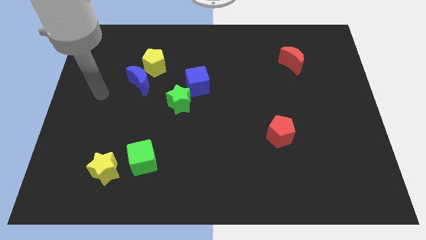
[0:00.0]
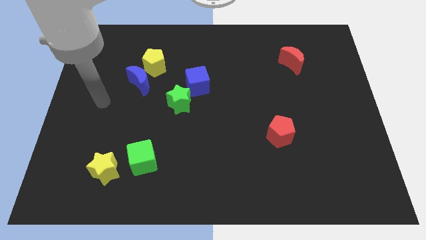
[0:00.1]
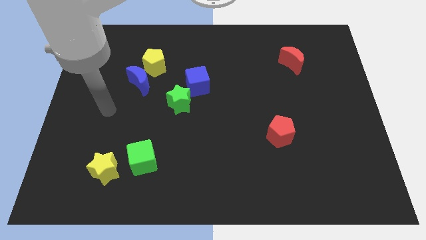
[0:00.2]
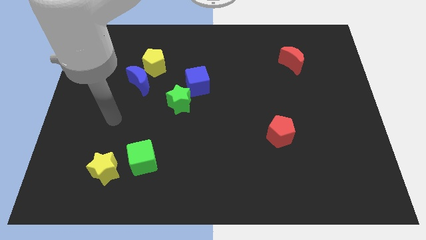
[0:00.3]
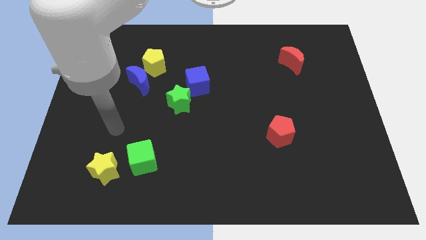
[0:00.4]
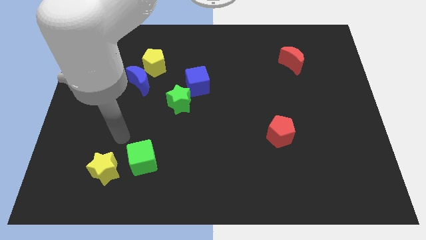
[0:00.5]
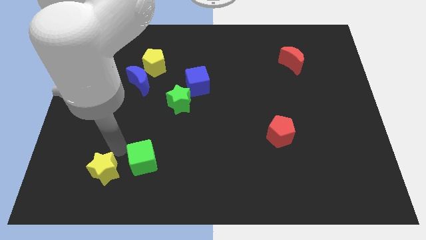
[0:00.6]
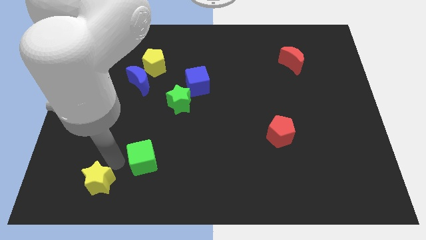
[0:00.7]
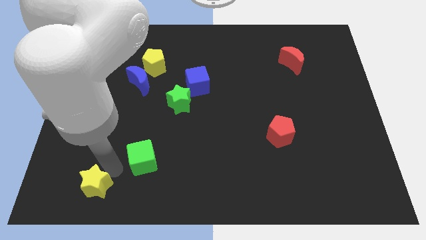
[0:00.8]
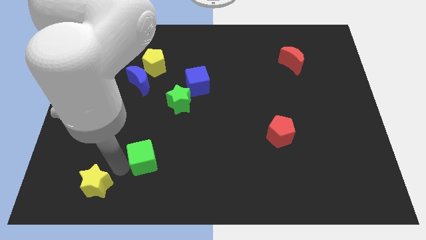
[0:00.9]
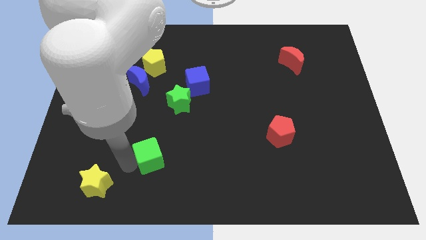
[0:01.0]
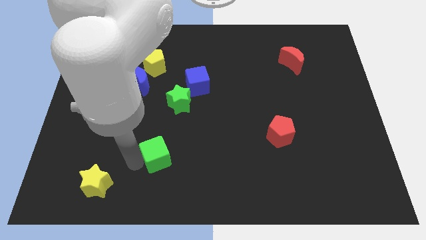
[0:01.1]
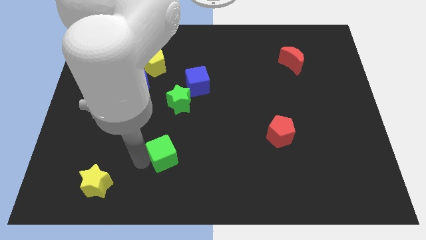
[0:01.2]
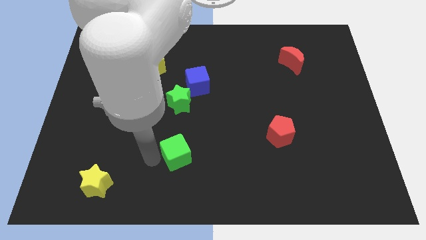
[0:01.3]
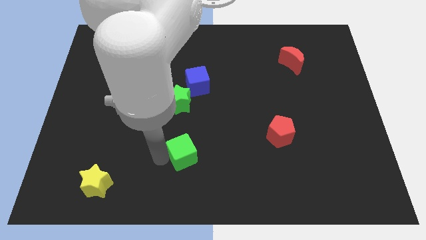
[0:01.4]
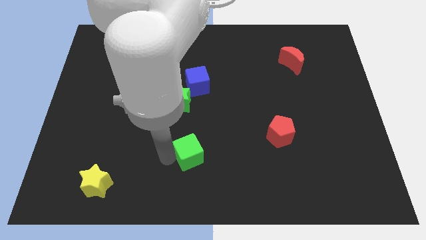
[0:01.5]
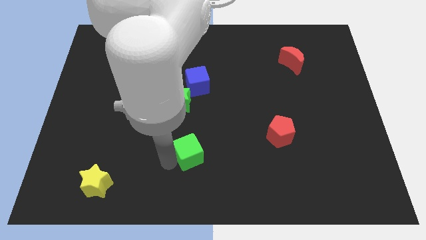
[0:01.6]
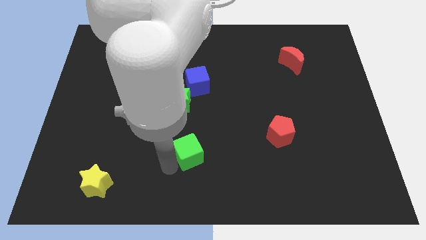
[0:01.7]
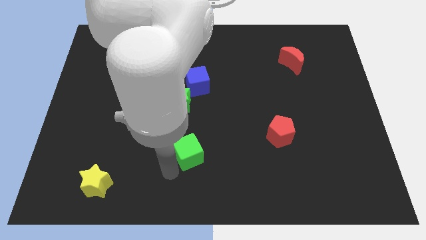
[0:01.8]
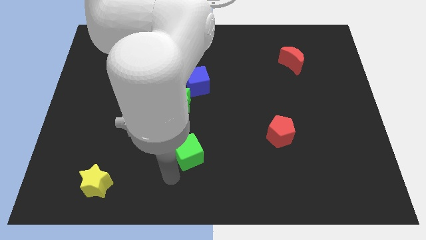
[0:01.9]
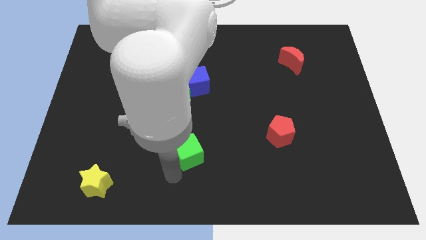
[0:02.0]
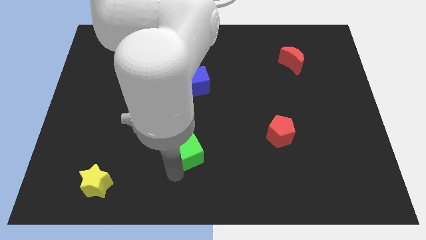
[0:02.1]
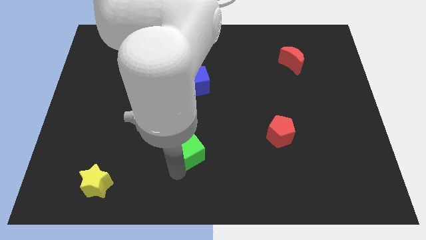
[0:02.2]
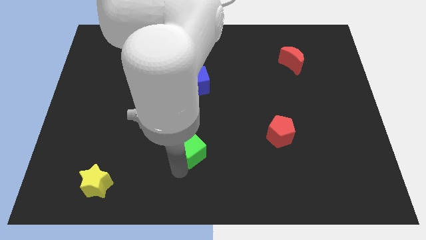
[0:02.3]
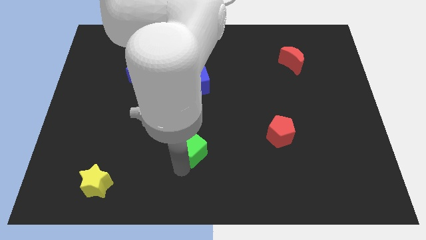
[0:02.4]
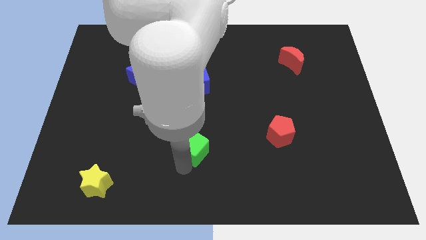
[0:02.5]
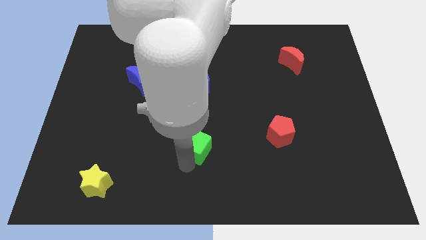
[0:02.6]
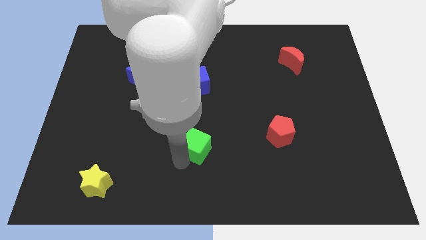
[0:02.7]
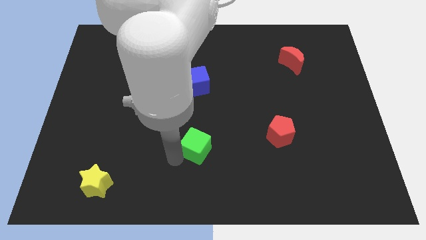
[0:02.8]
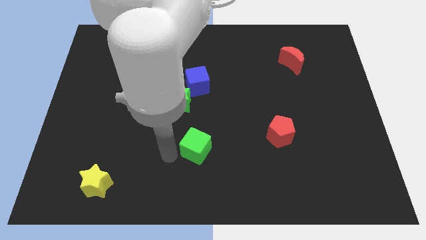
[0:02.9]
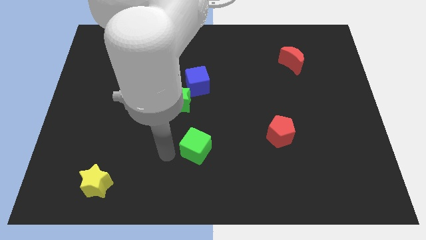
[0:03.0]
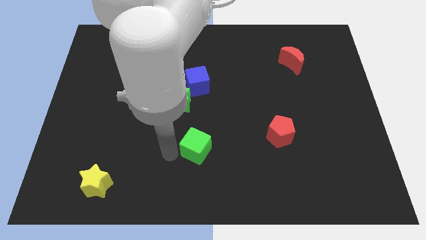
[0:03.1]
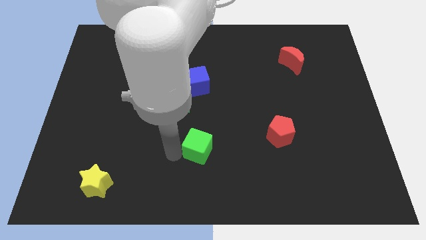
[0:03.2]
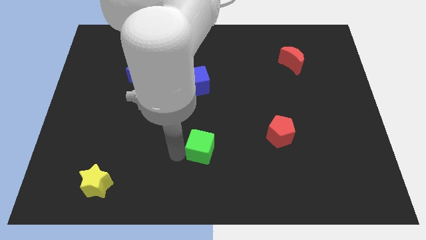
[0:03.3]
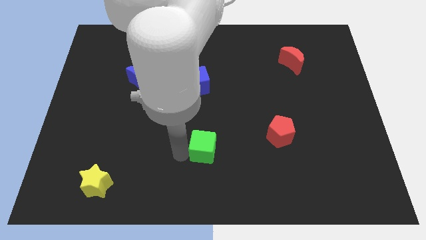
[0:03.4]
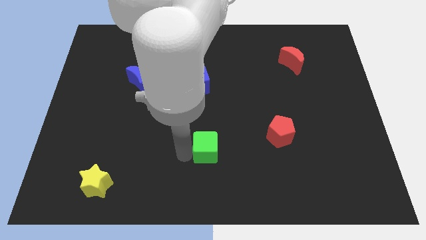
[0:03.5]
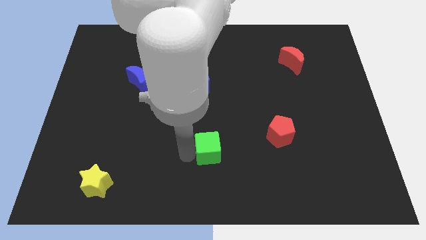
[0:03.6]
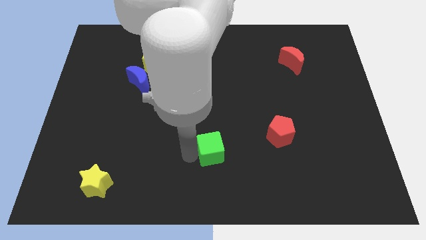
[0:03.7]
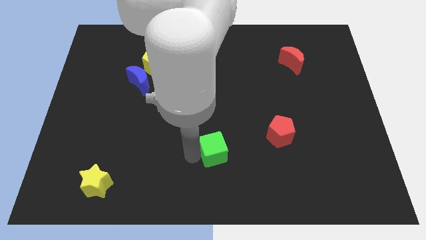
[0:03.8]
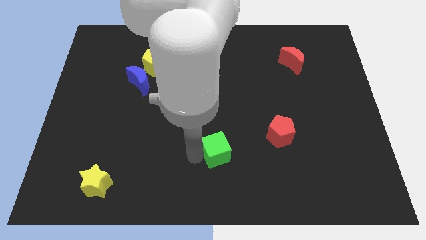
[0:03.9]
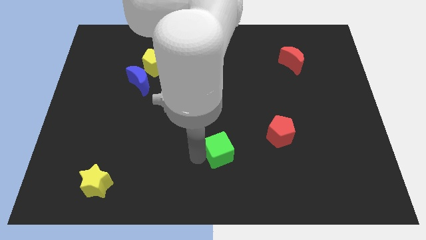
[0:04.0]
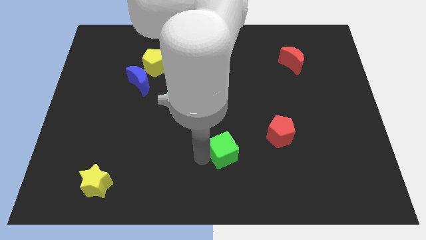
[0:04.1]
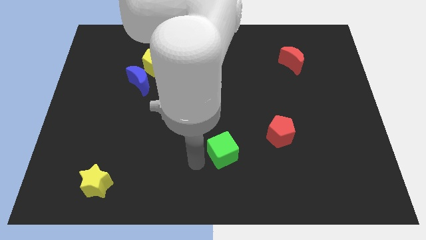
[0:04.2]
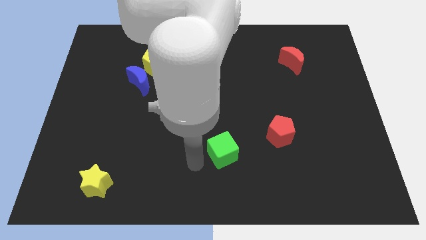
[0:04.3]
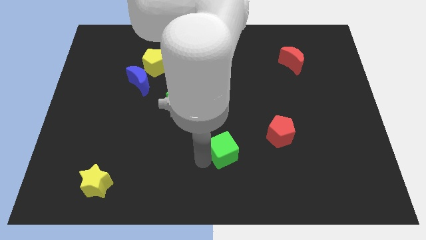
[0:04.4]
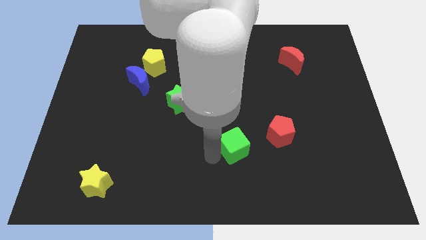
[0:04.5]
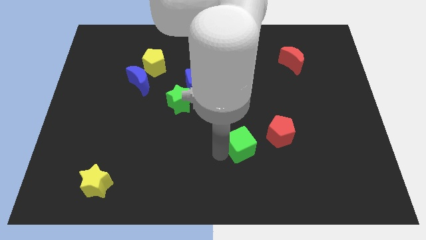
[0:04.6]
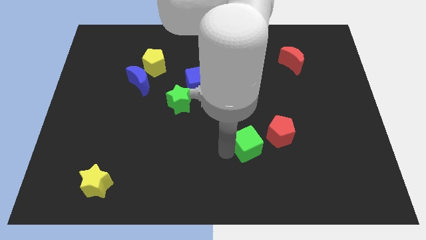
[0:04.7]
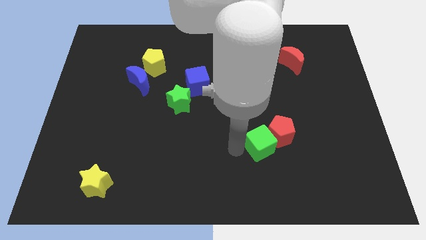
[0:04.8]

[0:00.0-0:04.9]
put the green cube next to the red pentagon

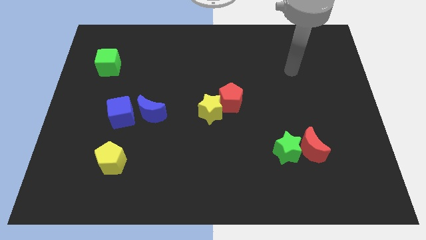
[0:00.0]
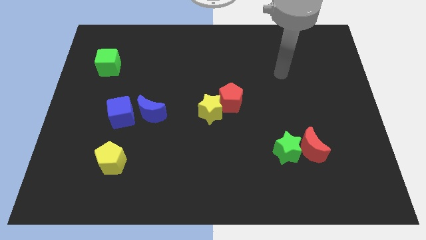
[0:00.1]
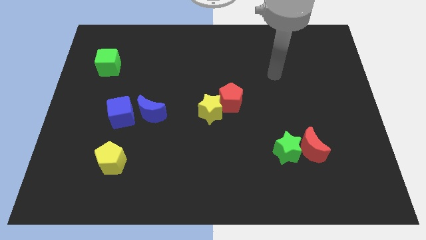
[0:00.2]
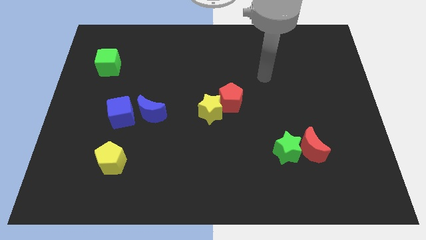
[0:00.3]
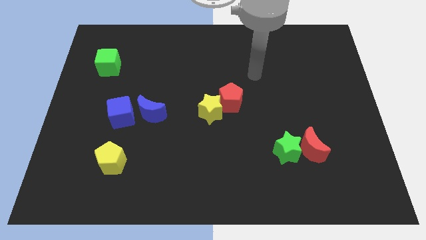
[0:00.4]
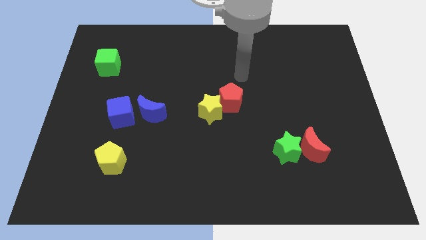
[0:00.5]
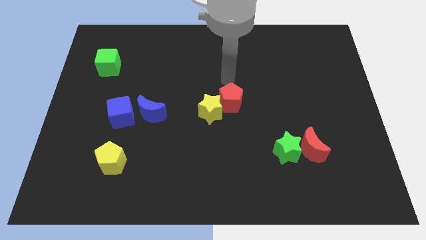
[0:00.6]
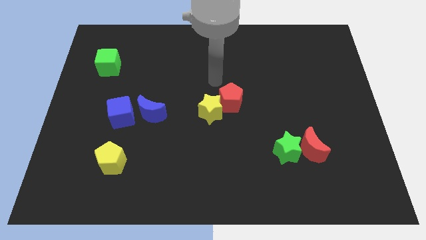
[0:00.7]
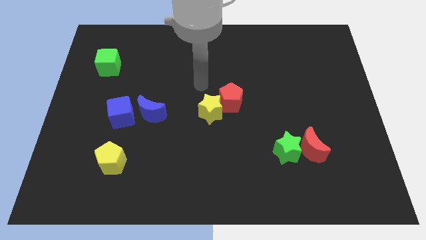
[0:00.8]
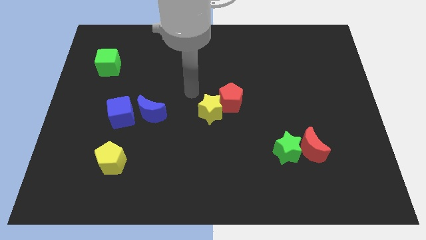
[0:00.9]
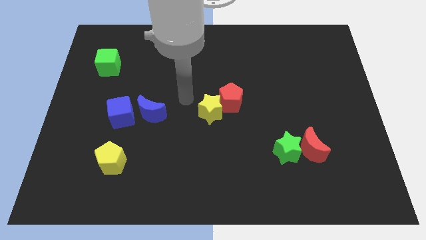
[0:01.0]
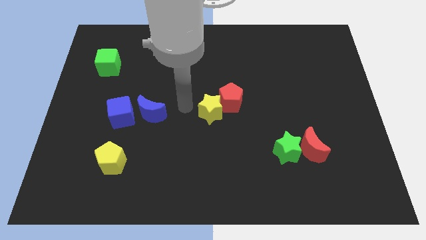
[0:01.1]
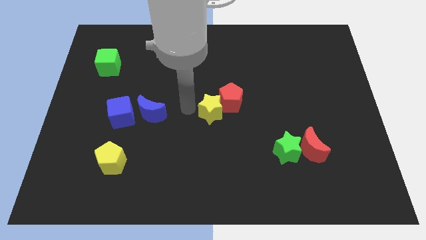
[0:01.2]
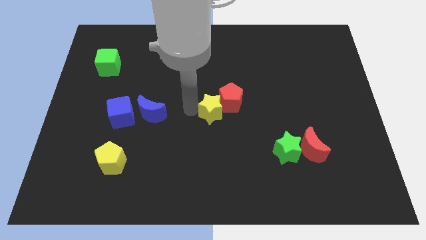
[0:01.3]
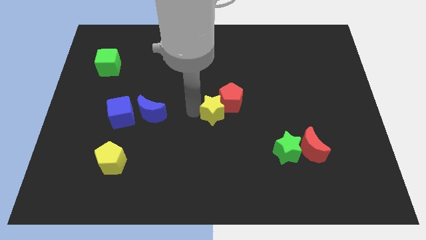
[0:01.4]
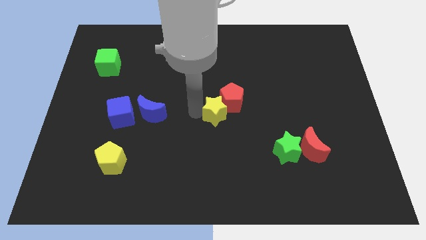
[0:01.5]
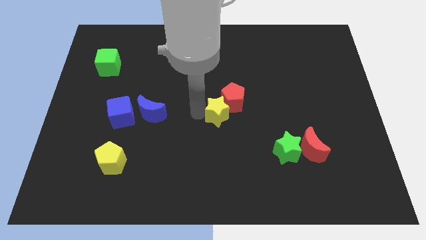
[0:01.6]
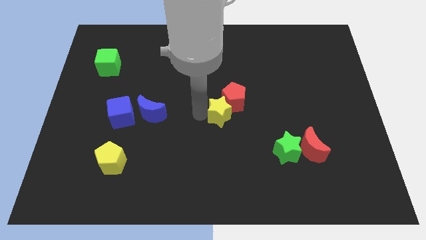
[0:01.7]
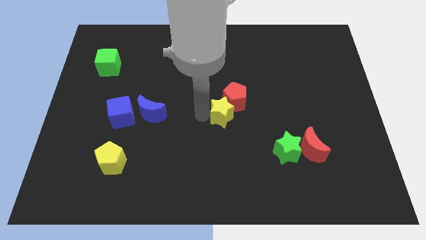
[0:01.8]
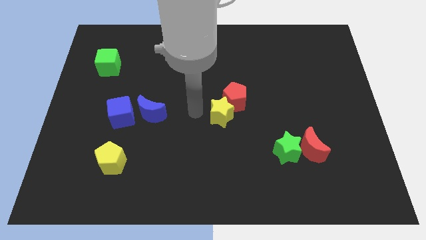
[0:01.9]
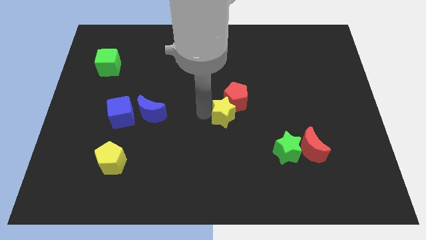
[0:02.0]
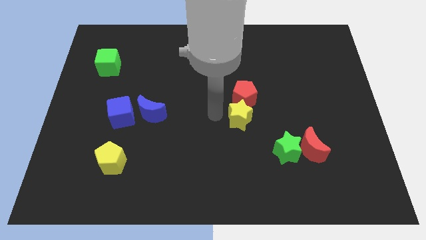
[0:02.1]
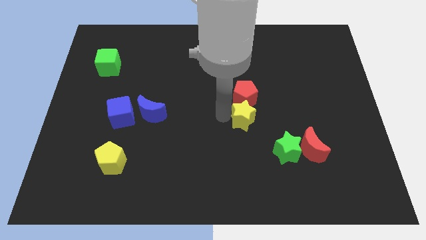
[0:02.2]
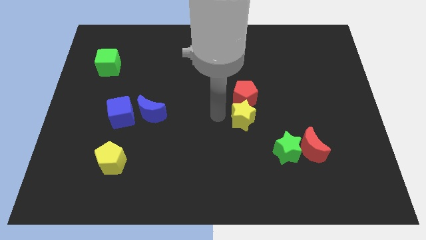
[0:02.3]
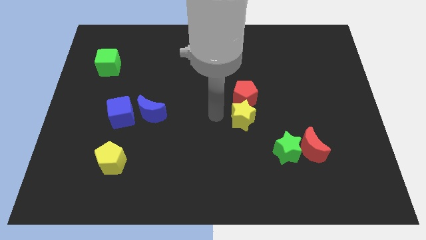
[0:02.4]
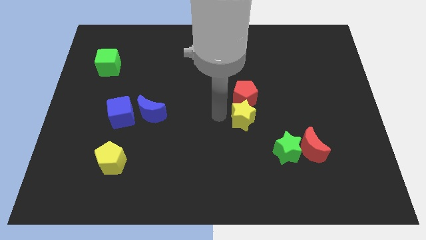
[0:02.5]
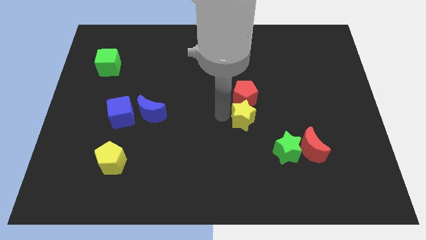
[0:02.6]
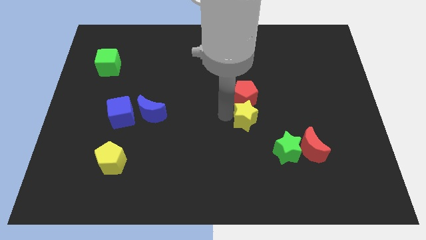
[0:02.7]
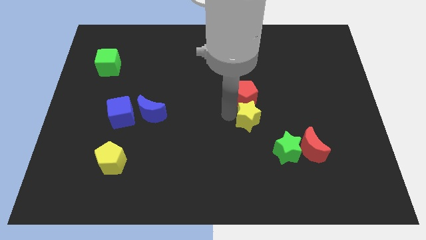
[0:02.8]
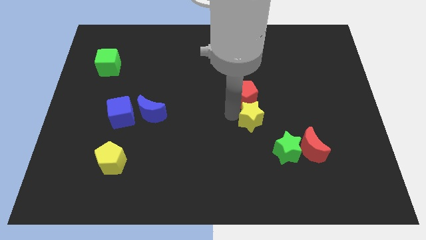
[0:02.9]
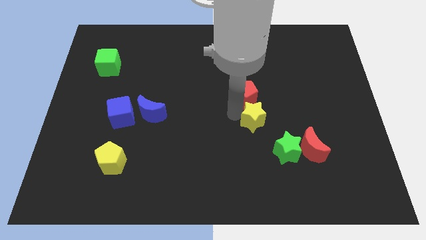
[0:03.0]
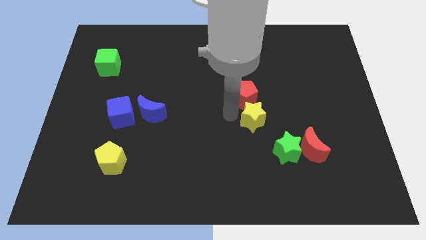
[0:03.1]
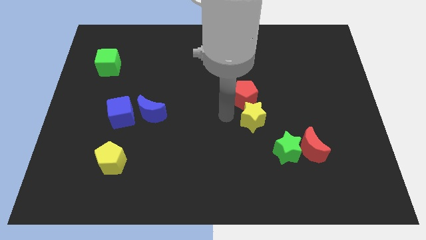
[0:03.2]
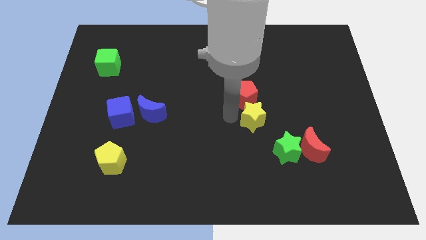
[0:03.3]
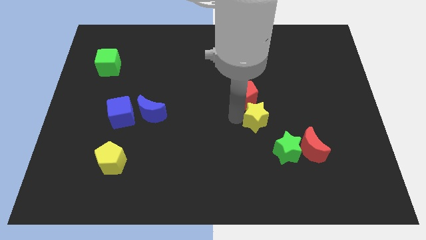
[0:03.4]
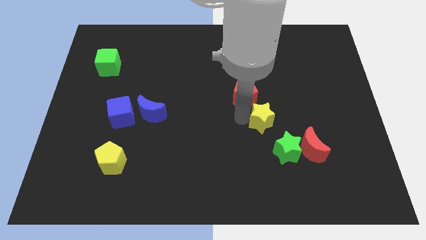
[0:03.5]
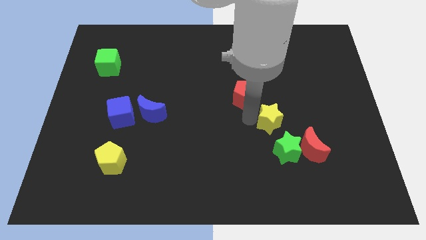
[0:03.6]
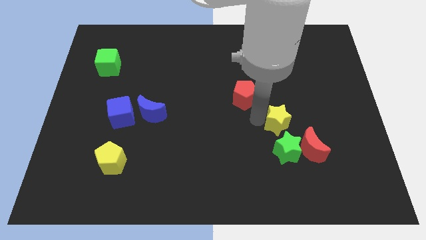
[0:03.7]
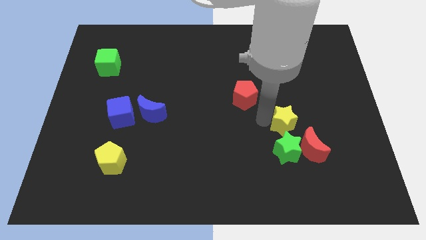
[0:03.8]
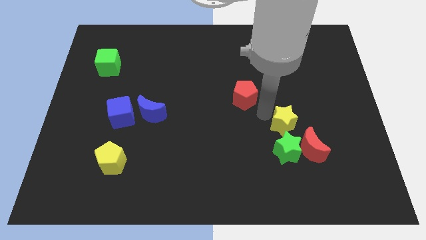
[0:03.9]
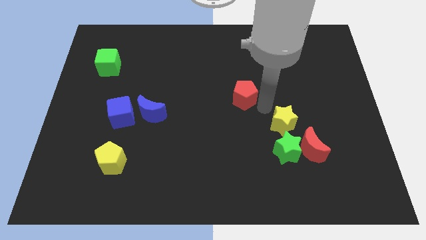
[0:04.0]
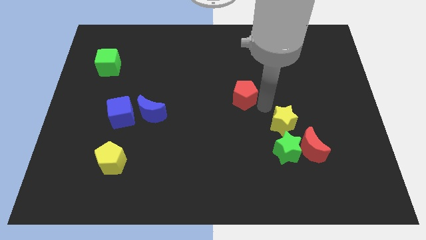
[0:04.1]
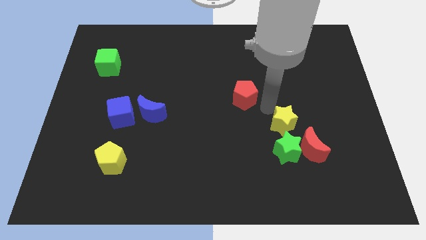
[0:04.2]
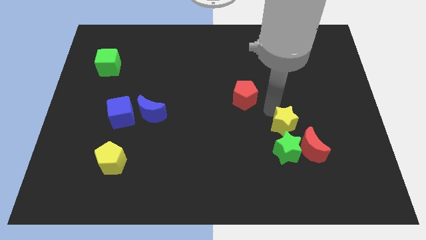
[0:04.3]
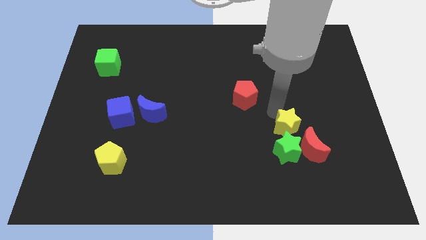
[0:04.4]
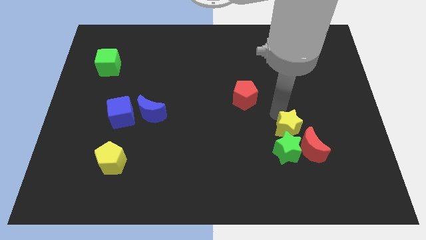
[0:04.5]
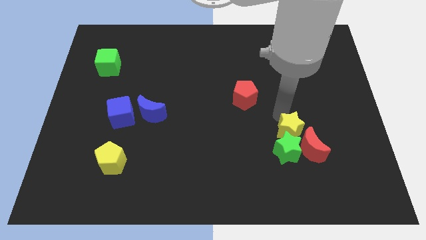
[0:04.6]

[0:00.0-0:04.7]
put the yellow star next to the red moon
